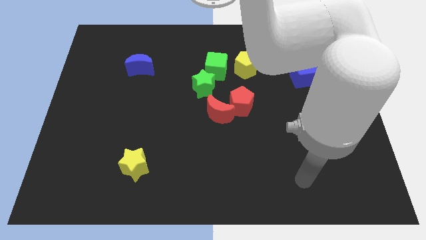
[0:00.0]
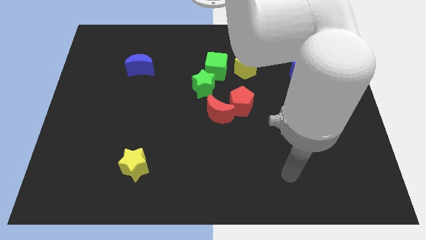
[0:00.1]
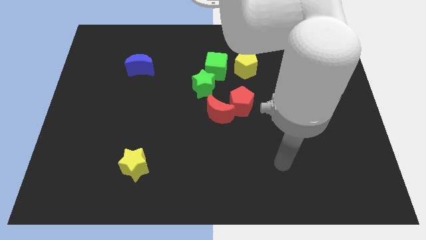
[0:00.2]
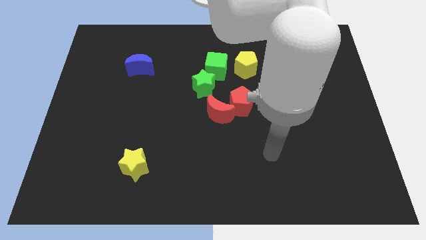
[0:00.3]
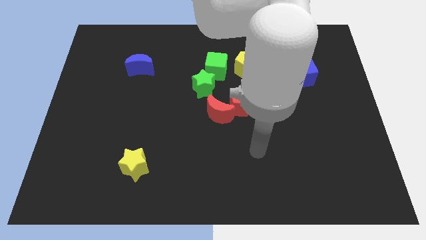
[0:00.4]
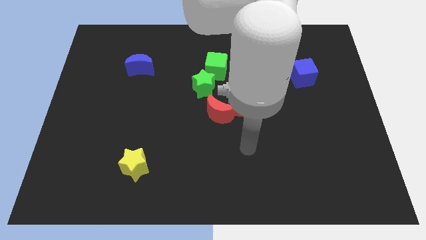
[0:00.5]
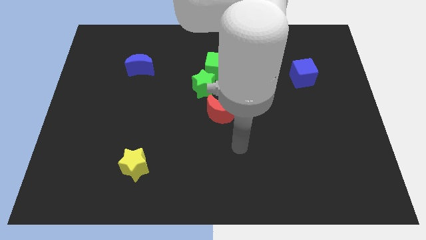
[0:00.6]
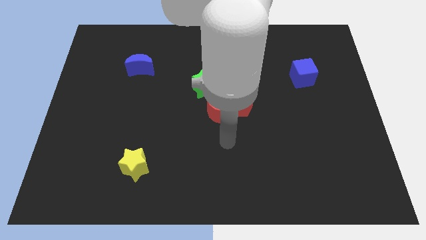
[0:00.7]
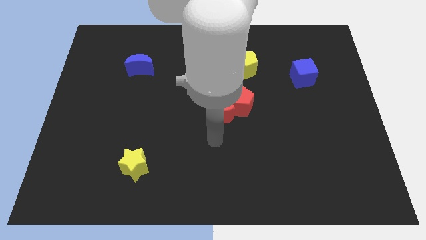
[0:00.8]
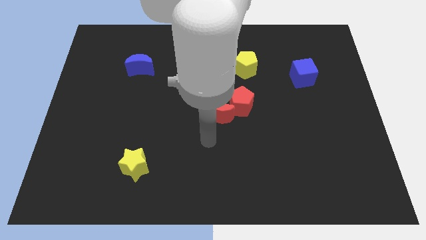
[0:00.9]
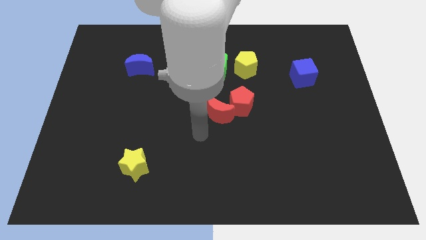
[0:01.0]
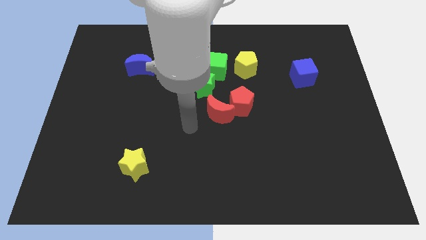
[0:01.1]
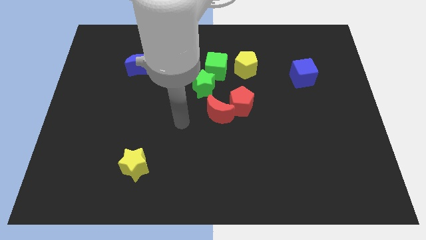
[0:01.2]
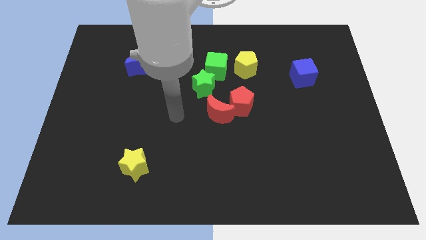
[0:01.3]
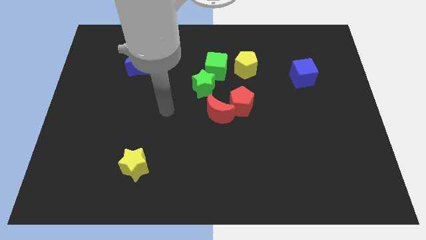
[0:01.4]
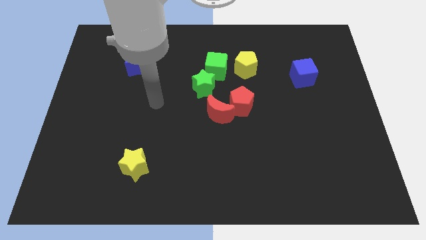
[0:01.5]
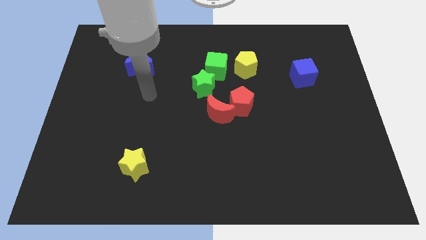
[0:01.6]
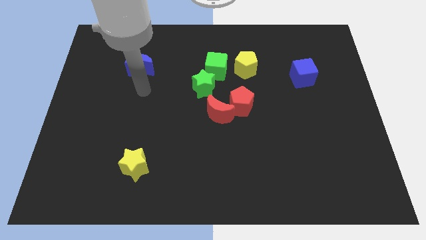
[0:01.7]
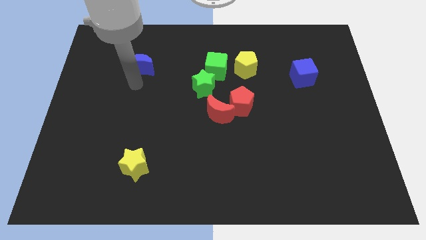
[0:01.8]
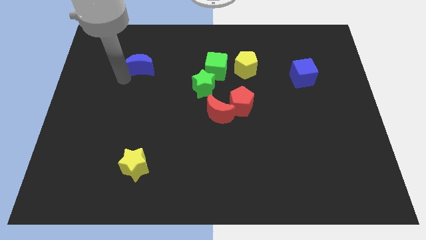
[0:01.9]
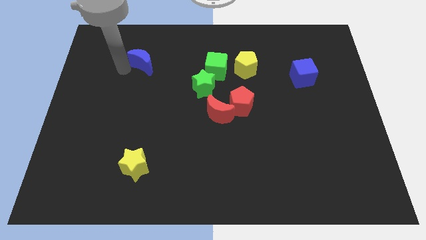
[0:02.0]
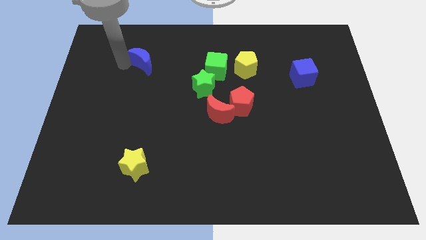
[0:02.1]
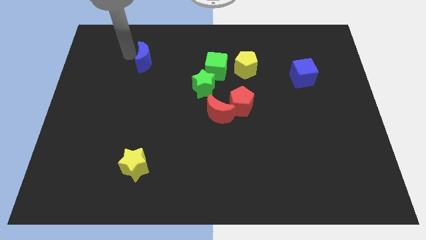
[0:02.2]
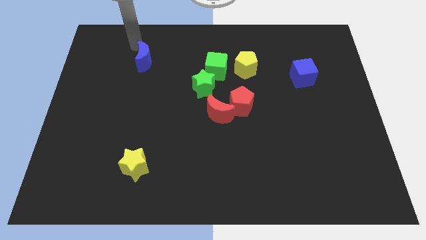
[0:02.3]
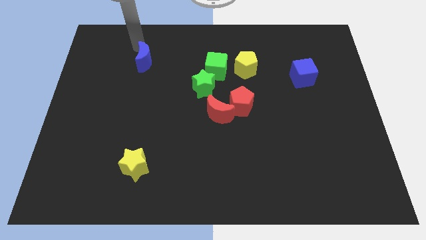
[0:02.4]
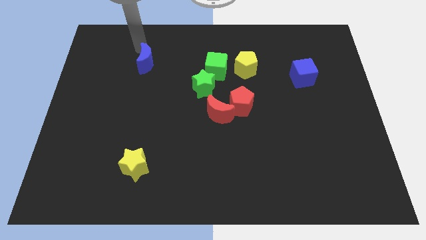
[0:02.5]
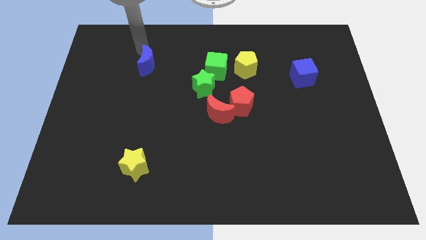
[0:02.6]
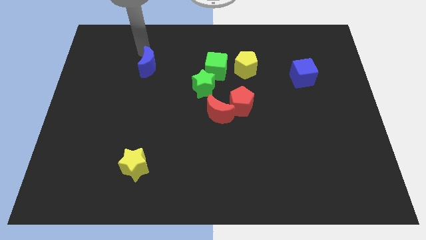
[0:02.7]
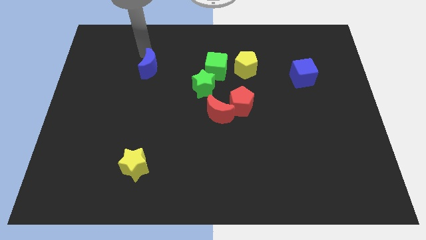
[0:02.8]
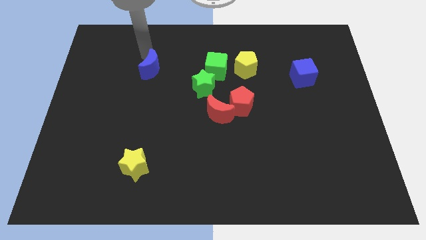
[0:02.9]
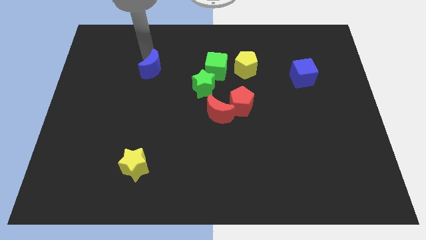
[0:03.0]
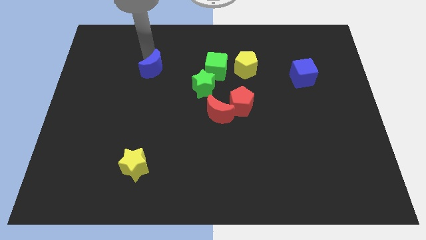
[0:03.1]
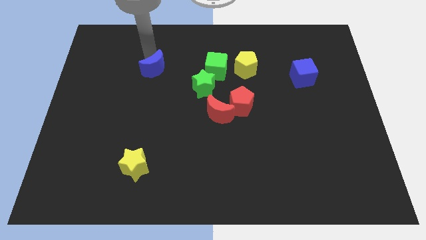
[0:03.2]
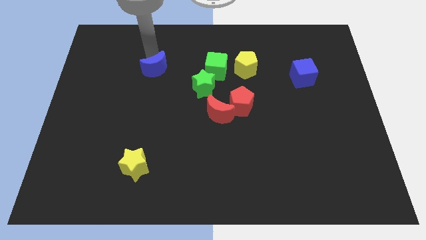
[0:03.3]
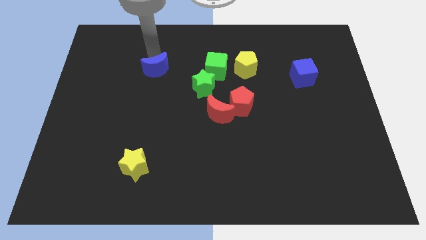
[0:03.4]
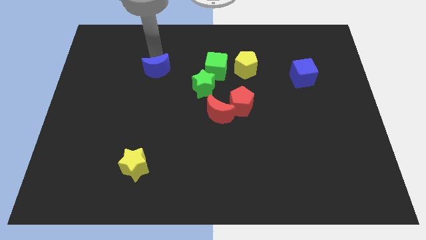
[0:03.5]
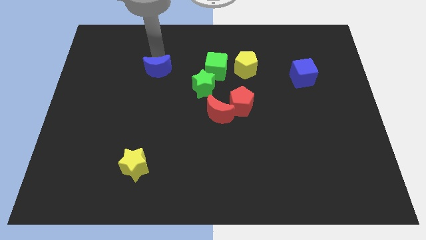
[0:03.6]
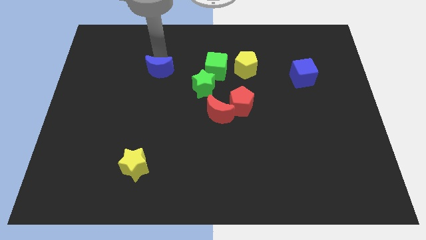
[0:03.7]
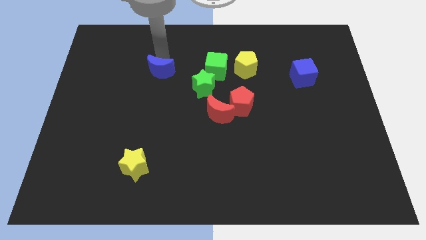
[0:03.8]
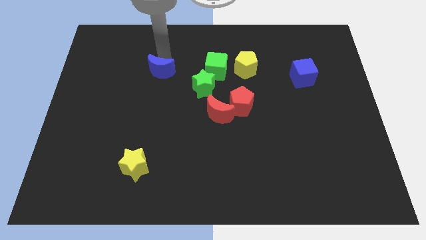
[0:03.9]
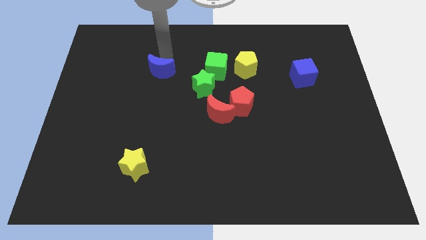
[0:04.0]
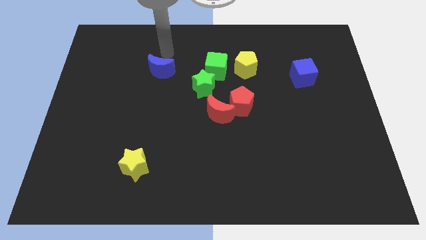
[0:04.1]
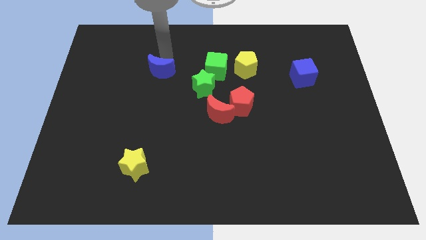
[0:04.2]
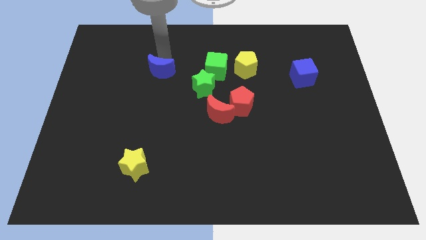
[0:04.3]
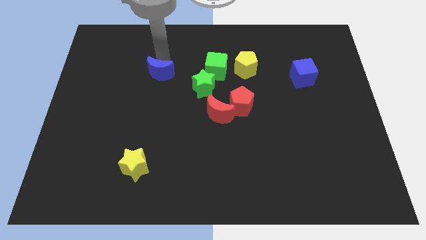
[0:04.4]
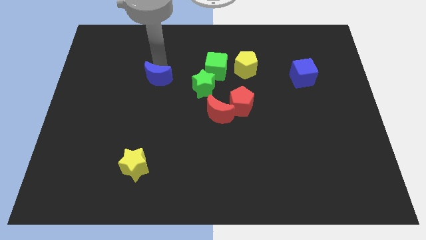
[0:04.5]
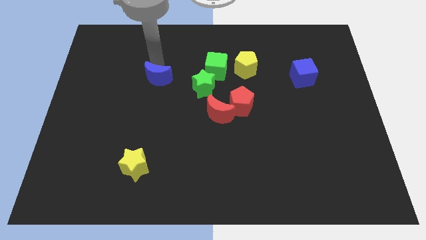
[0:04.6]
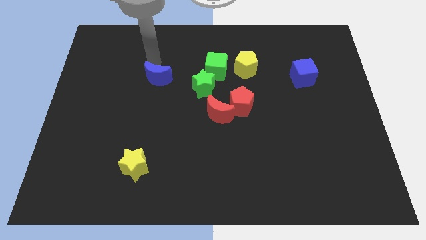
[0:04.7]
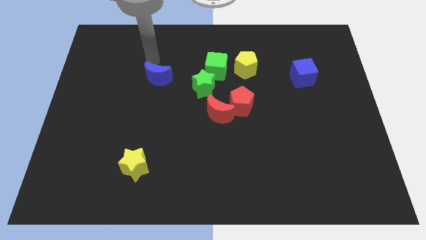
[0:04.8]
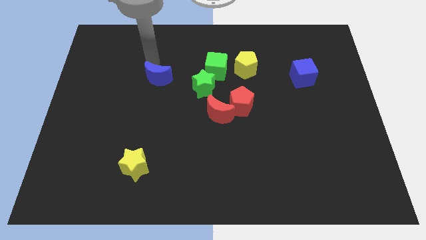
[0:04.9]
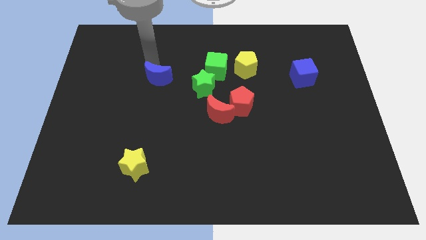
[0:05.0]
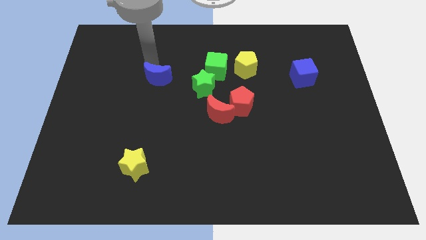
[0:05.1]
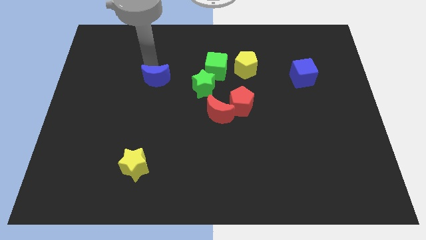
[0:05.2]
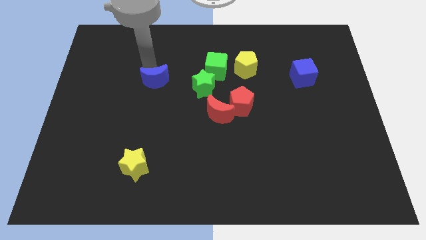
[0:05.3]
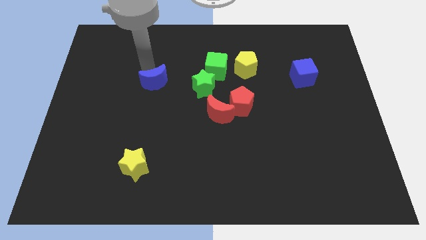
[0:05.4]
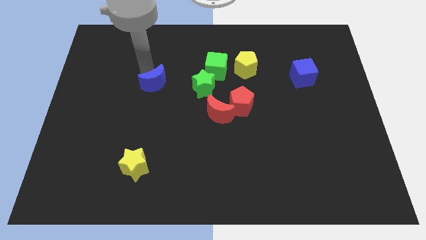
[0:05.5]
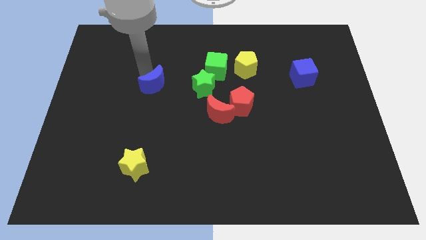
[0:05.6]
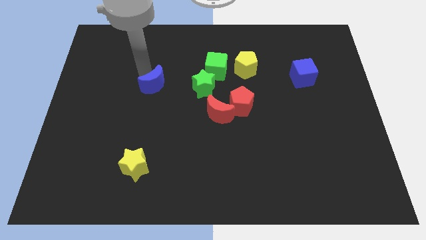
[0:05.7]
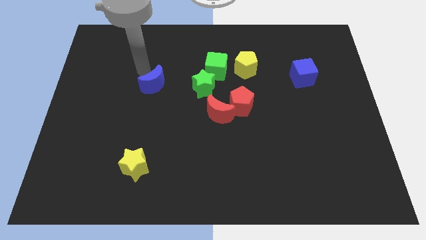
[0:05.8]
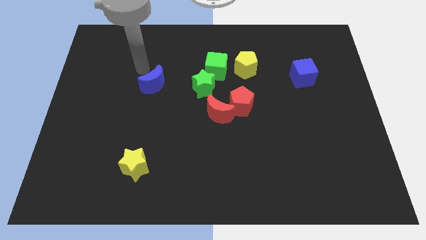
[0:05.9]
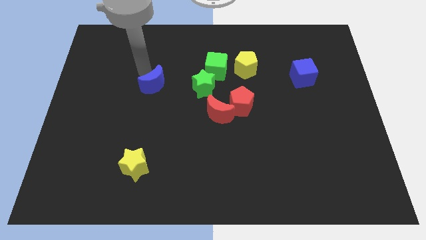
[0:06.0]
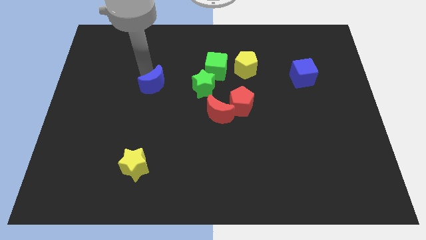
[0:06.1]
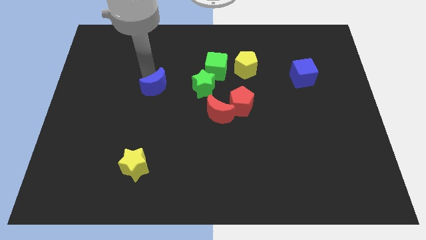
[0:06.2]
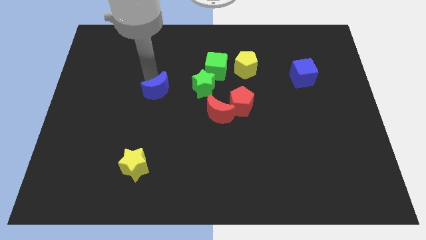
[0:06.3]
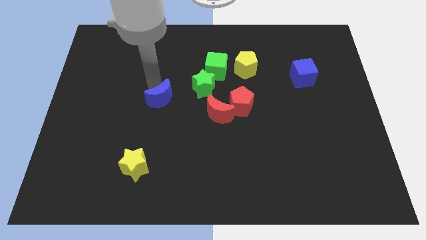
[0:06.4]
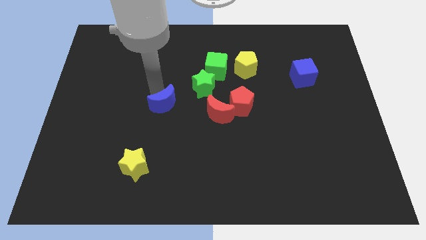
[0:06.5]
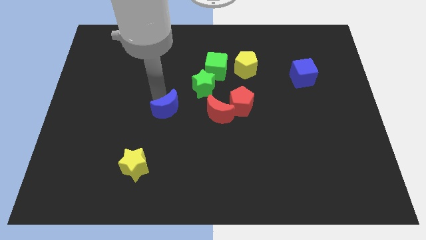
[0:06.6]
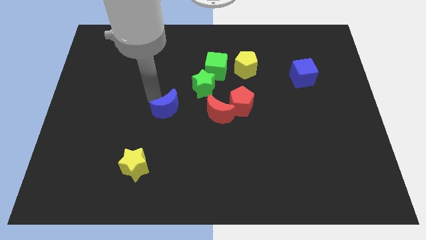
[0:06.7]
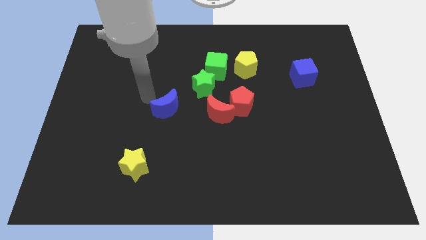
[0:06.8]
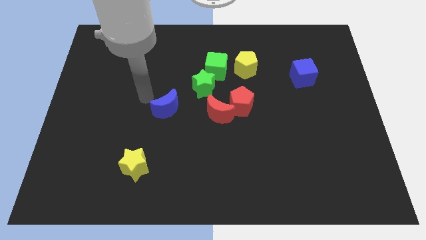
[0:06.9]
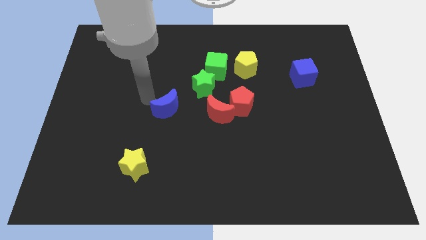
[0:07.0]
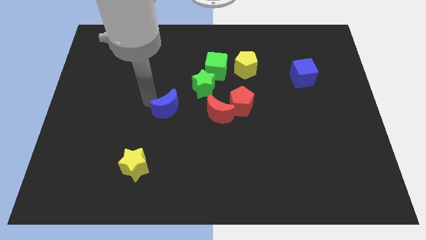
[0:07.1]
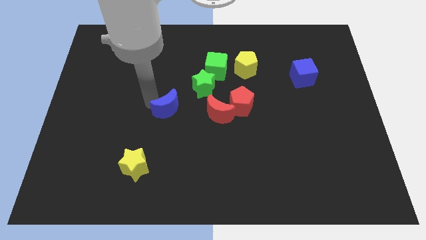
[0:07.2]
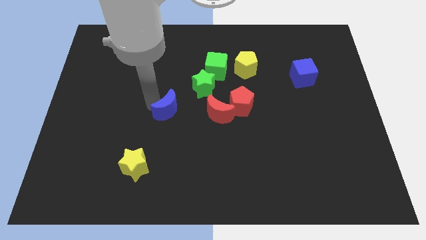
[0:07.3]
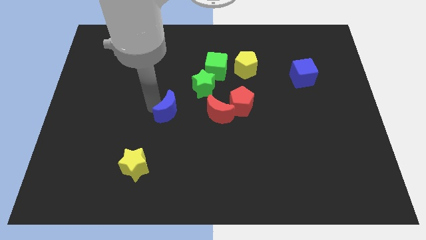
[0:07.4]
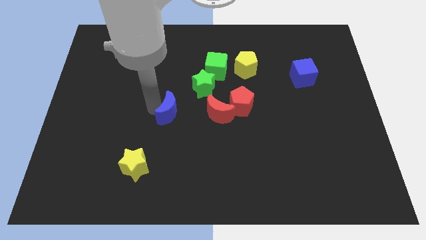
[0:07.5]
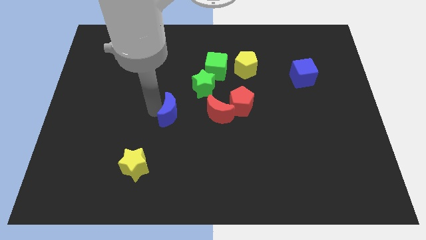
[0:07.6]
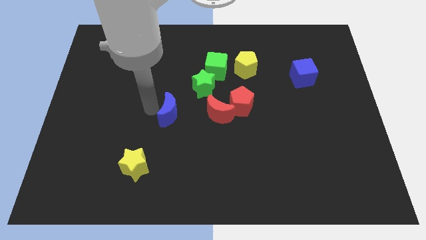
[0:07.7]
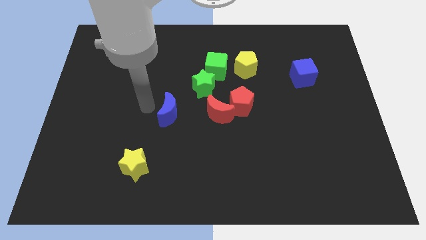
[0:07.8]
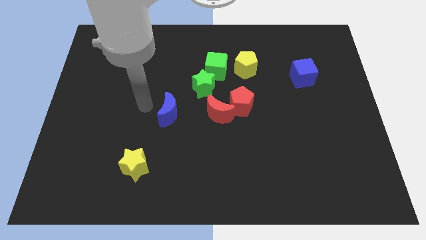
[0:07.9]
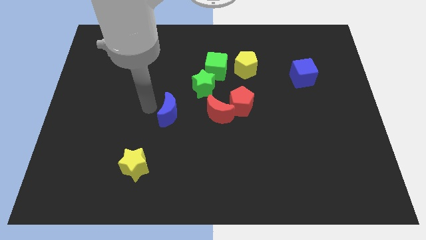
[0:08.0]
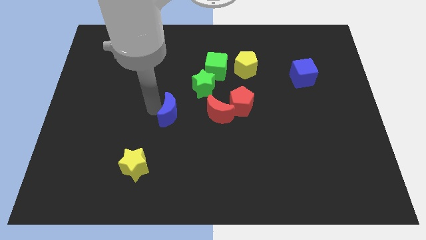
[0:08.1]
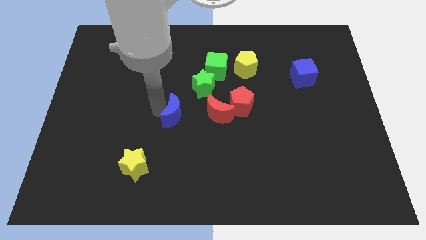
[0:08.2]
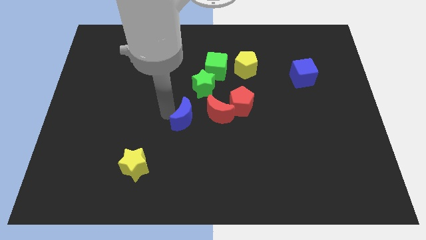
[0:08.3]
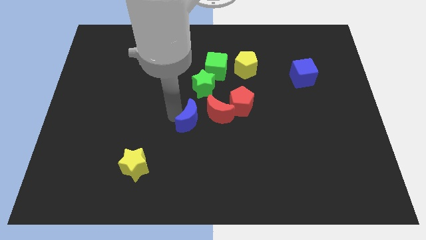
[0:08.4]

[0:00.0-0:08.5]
push the blue moon diagonally downwards and right
